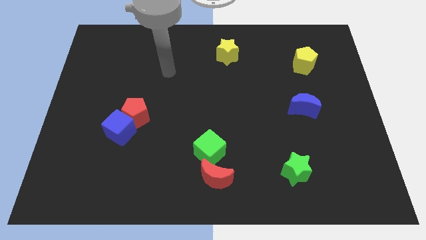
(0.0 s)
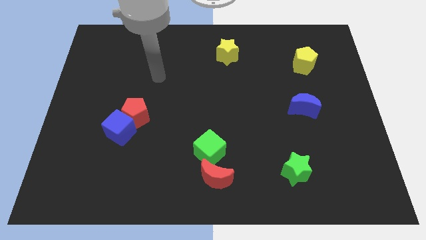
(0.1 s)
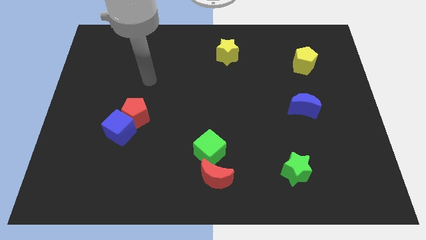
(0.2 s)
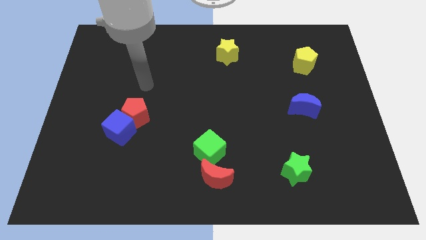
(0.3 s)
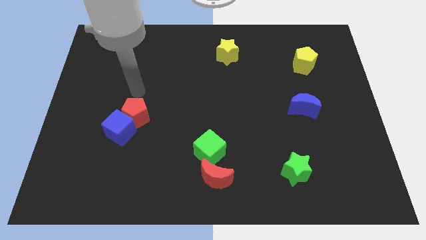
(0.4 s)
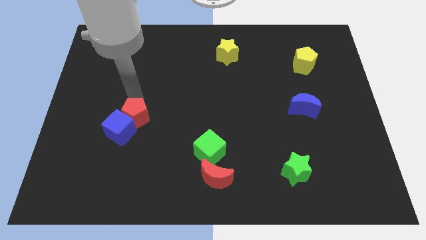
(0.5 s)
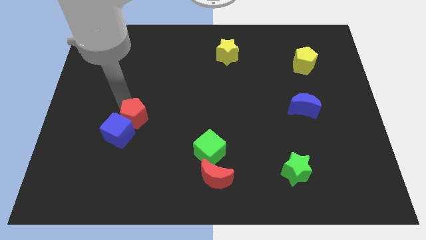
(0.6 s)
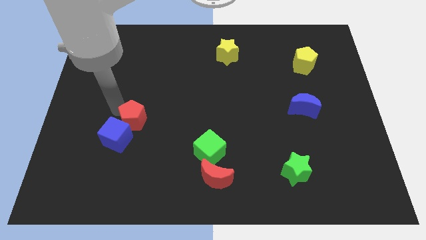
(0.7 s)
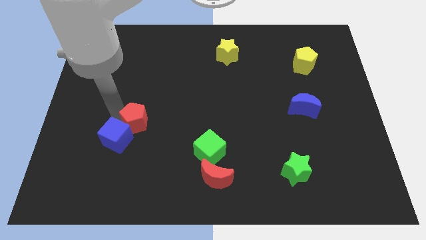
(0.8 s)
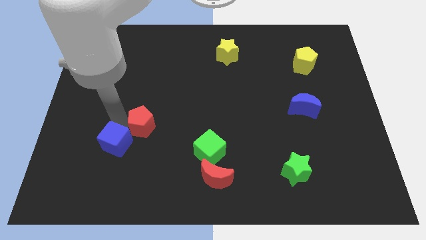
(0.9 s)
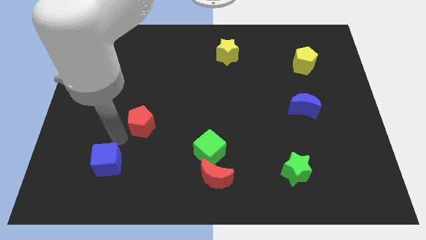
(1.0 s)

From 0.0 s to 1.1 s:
pull the red pentagon apart from the blue cube

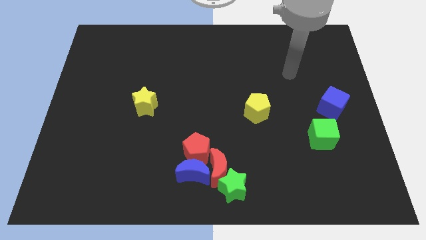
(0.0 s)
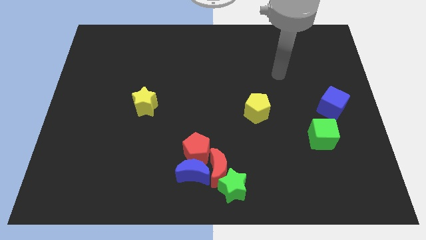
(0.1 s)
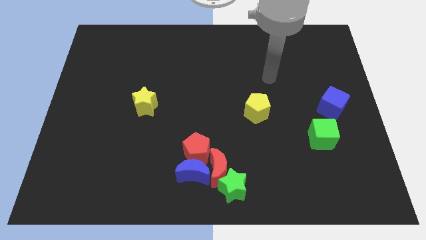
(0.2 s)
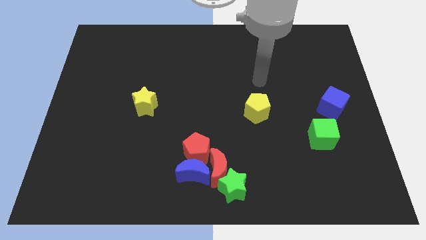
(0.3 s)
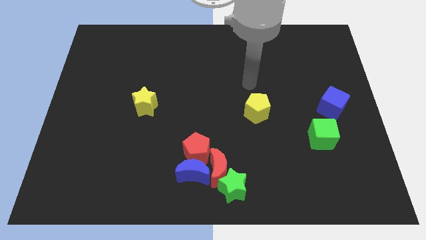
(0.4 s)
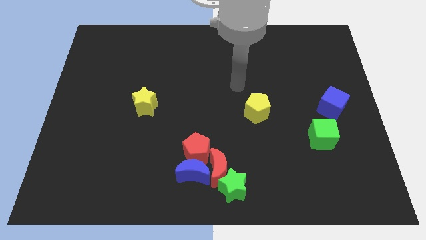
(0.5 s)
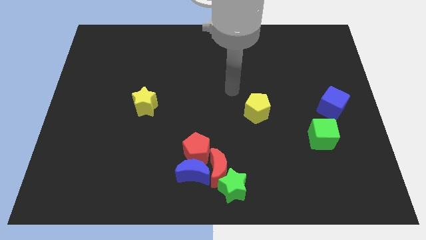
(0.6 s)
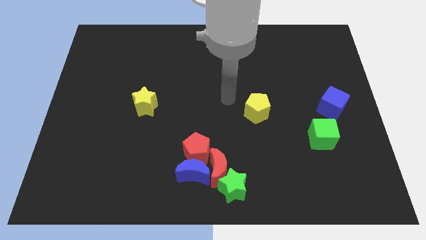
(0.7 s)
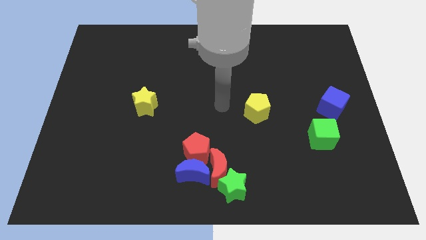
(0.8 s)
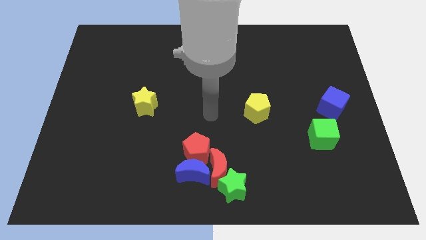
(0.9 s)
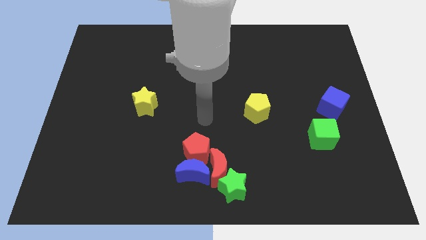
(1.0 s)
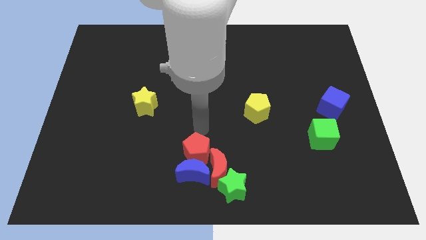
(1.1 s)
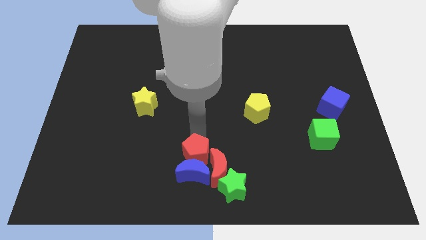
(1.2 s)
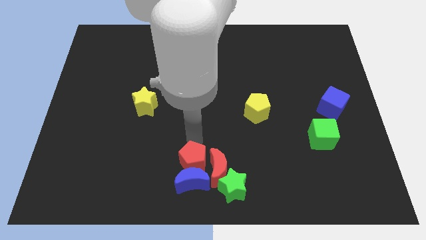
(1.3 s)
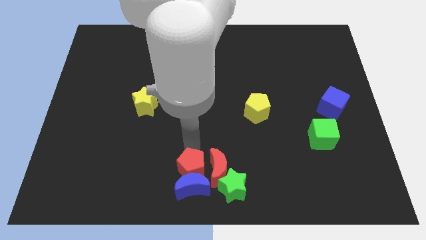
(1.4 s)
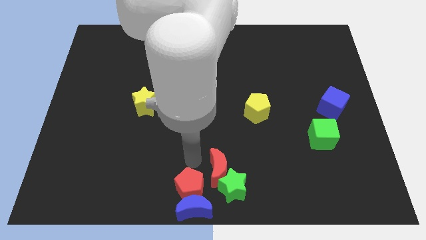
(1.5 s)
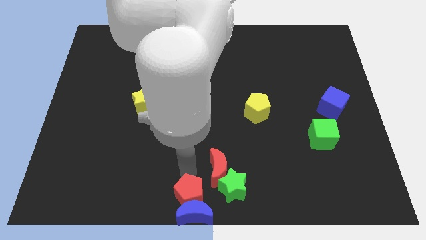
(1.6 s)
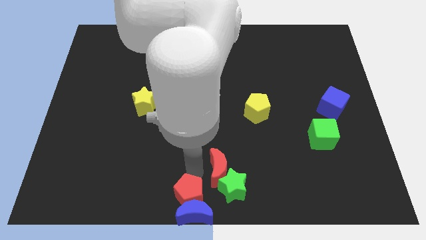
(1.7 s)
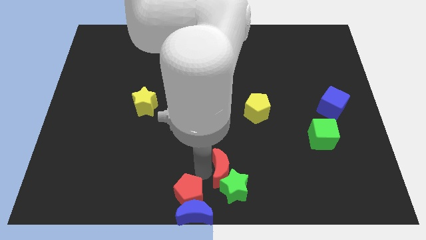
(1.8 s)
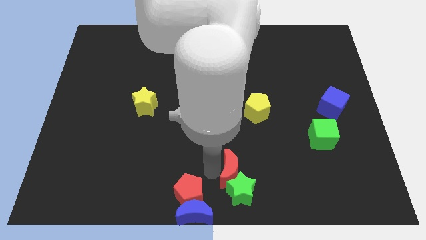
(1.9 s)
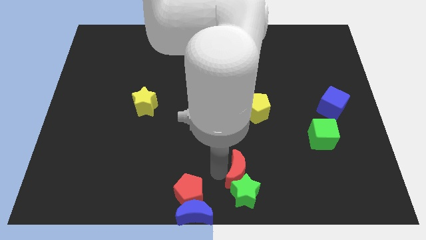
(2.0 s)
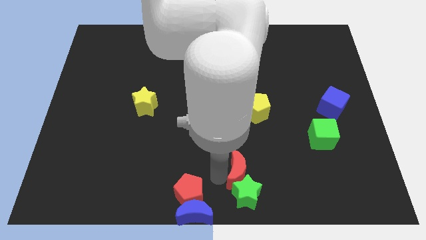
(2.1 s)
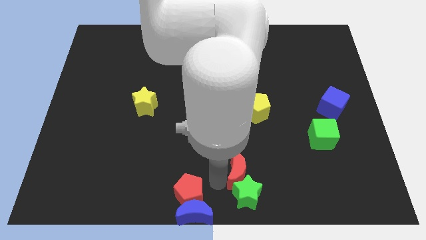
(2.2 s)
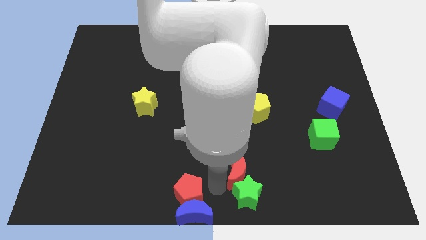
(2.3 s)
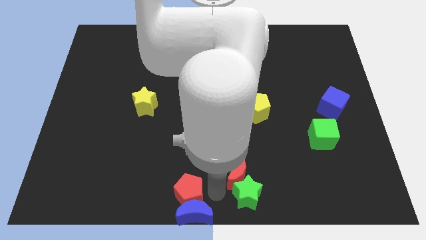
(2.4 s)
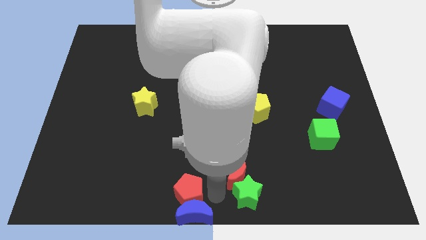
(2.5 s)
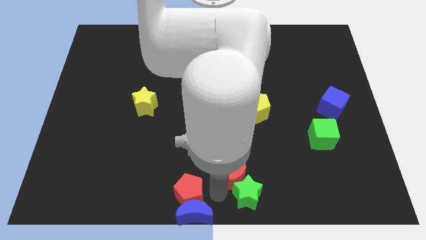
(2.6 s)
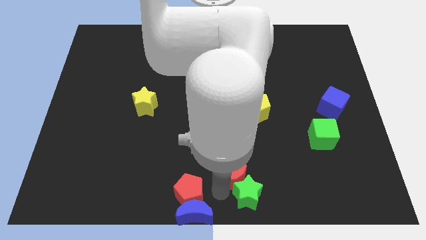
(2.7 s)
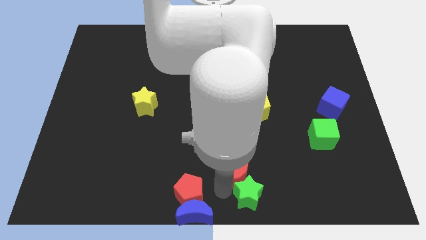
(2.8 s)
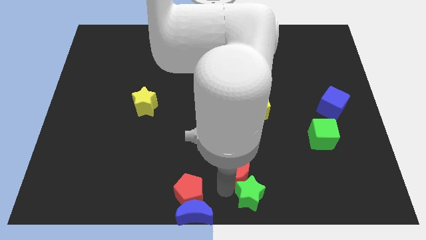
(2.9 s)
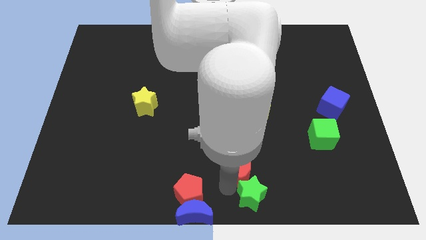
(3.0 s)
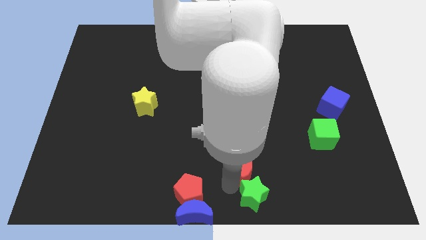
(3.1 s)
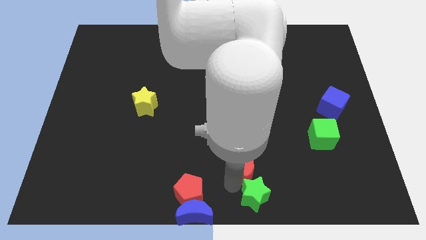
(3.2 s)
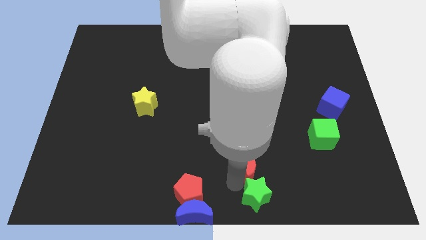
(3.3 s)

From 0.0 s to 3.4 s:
pull the red moon apart from the clump

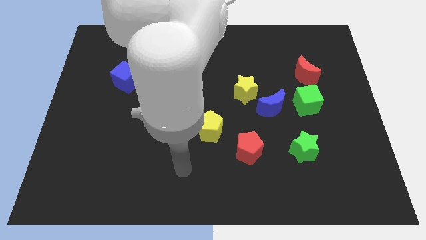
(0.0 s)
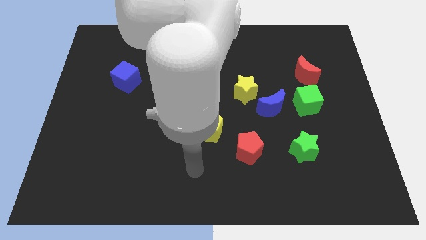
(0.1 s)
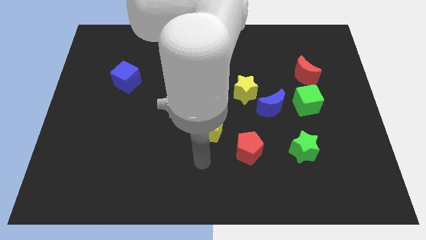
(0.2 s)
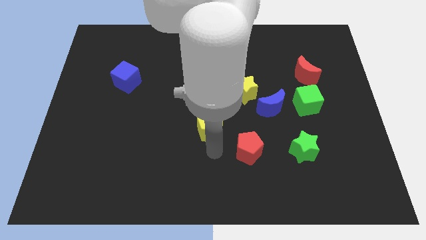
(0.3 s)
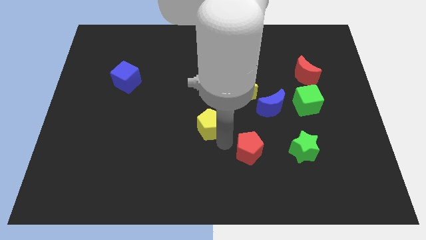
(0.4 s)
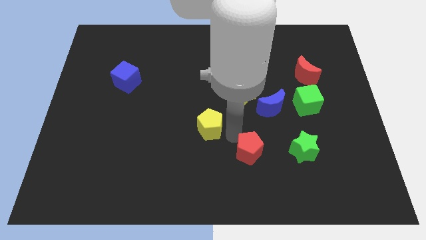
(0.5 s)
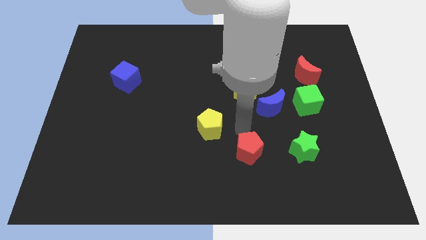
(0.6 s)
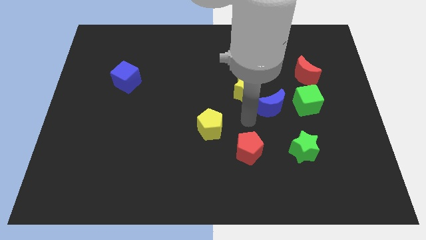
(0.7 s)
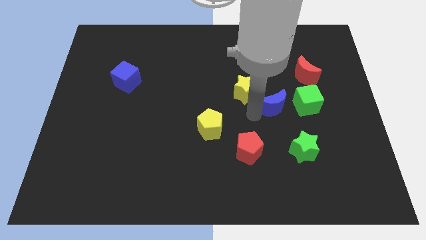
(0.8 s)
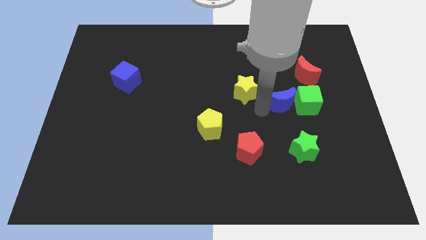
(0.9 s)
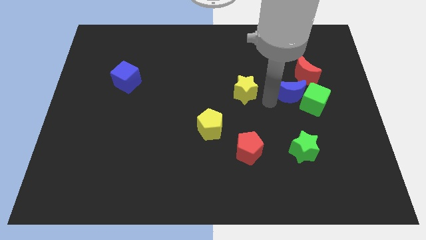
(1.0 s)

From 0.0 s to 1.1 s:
move the yellow star away from the blue moon

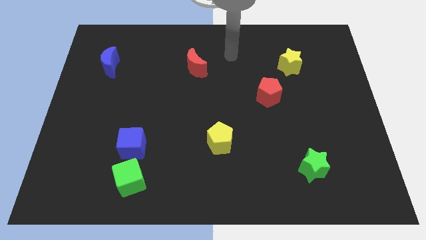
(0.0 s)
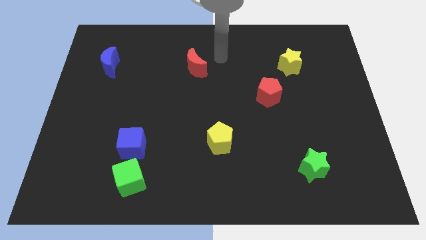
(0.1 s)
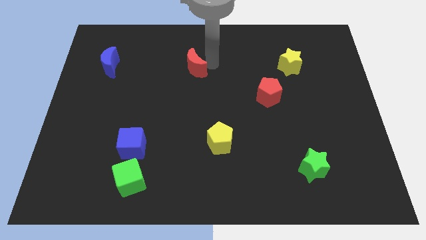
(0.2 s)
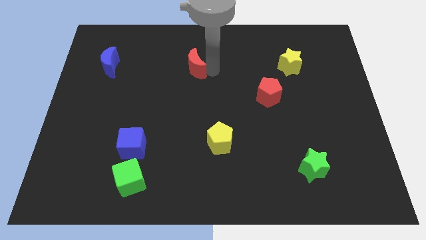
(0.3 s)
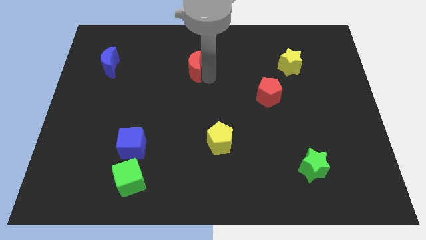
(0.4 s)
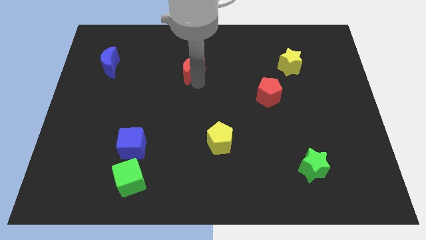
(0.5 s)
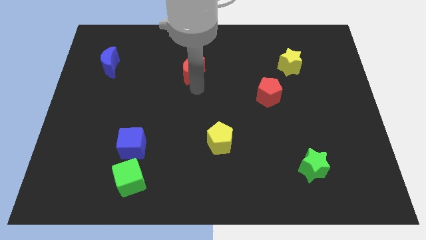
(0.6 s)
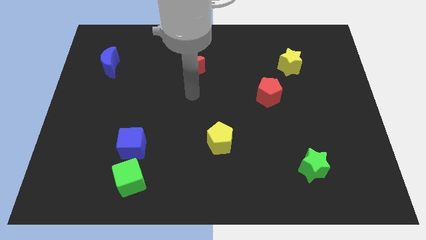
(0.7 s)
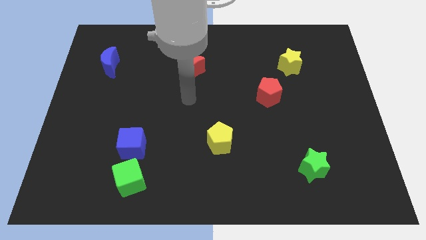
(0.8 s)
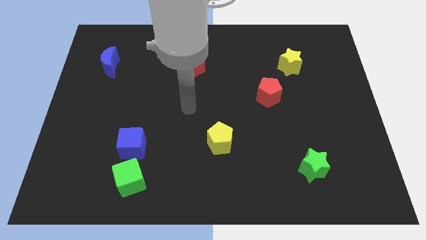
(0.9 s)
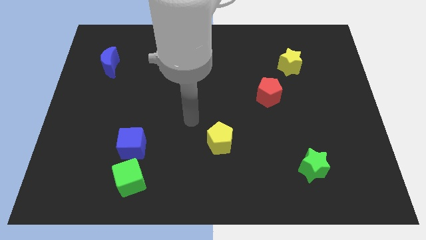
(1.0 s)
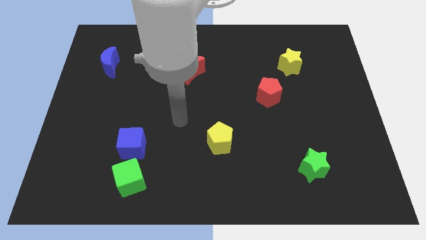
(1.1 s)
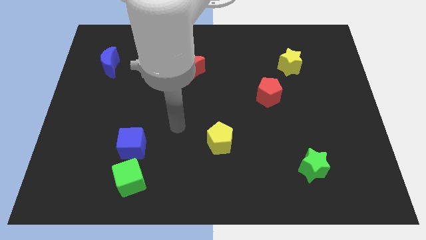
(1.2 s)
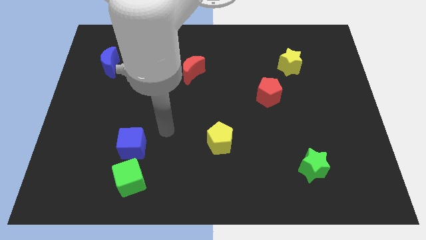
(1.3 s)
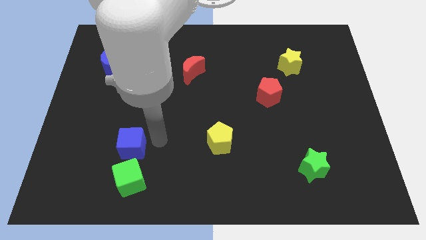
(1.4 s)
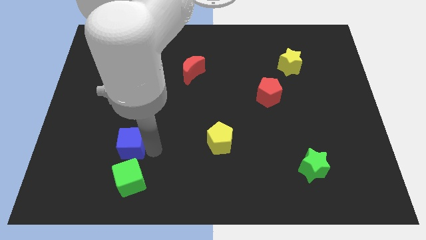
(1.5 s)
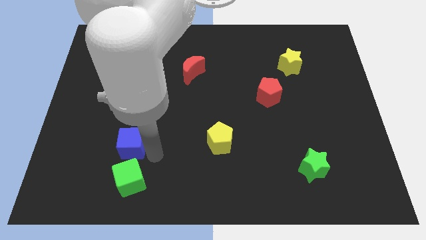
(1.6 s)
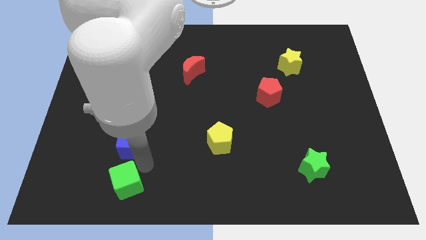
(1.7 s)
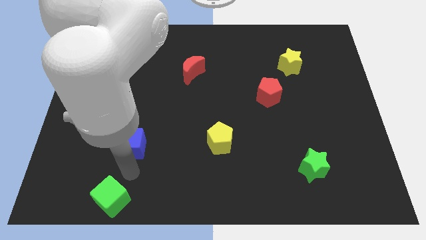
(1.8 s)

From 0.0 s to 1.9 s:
pull the blue cube apart from the green cube

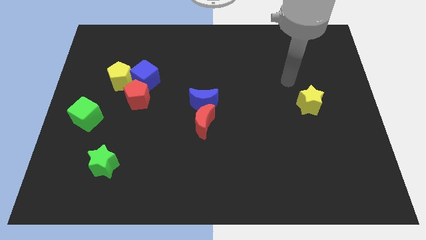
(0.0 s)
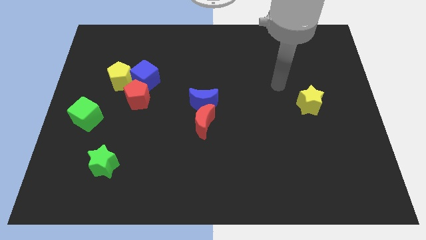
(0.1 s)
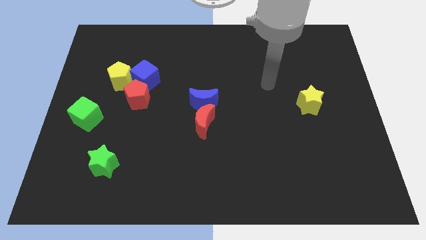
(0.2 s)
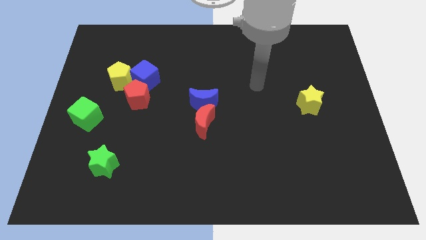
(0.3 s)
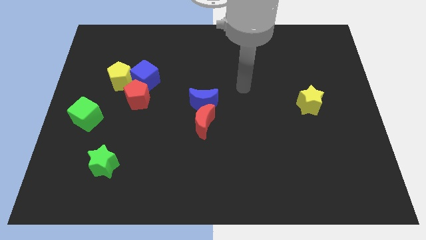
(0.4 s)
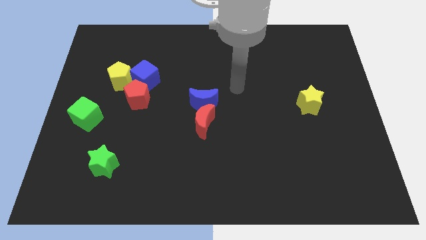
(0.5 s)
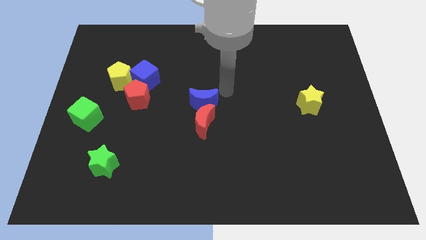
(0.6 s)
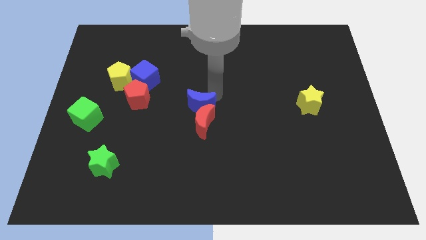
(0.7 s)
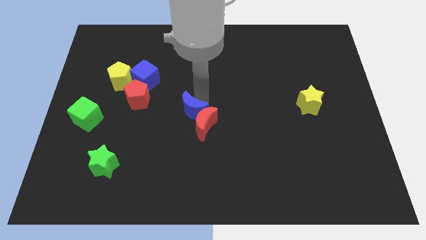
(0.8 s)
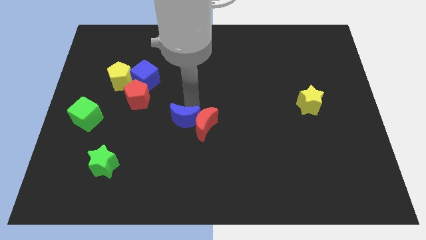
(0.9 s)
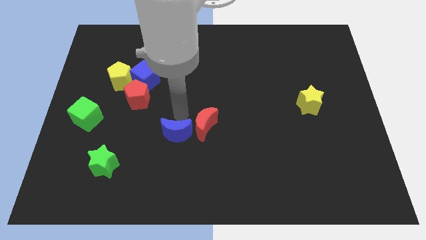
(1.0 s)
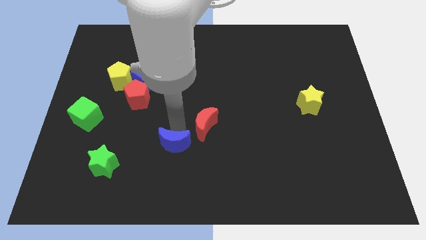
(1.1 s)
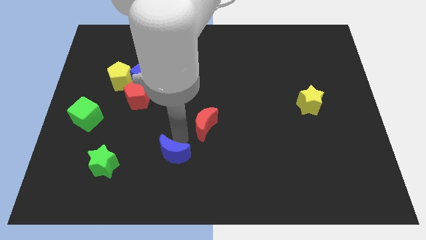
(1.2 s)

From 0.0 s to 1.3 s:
pull the red moon apart from the blue moon

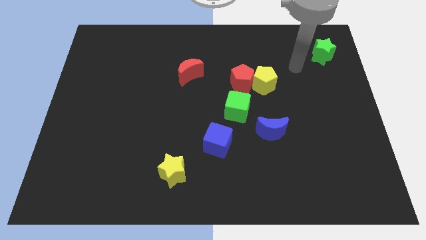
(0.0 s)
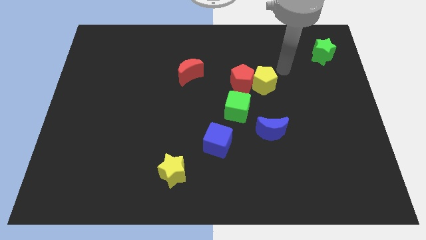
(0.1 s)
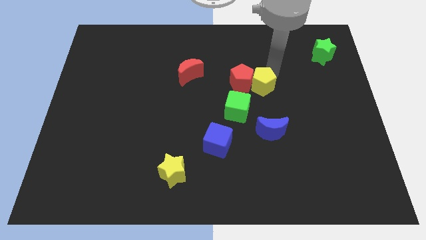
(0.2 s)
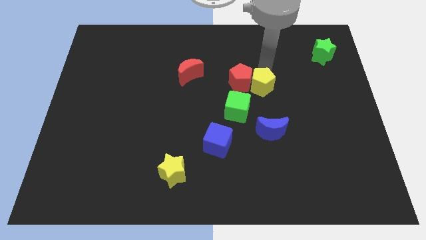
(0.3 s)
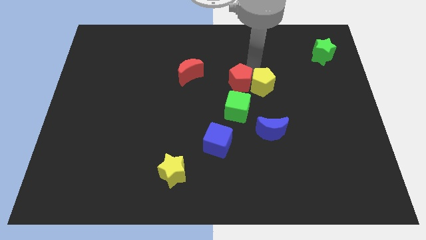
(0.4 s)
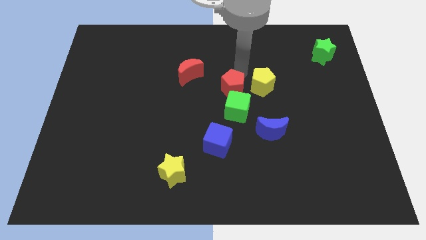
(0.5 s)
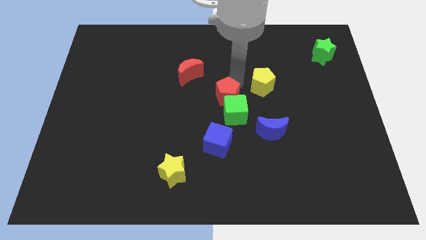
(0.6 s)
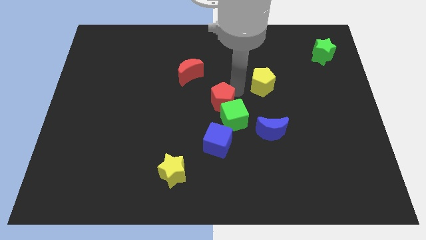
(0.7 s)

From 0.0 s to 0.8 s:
pull the yellow pentagon apart from the red pentagon
